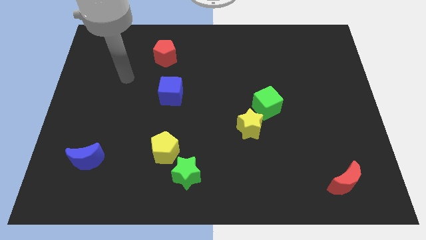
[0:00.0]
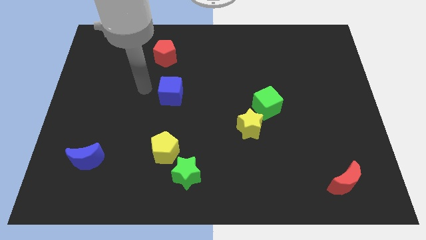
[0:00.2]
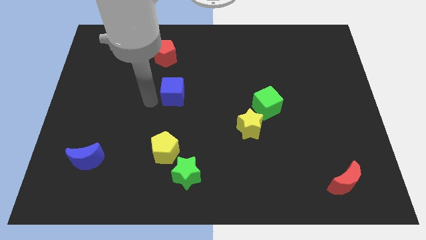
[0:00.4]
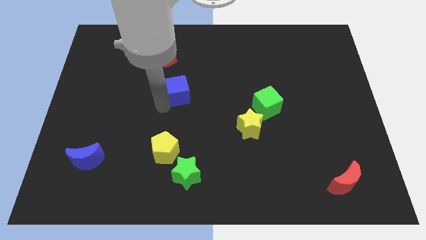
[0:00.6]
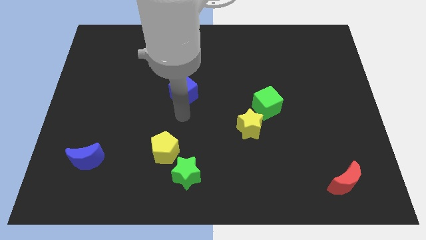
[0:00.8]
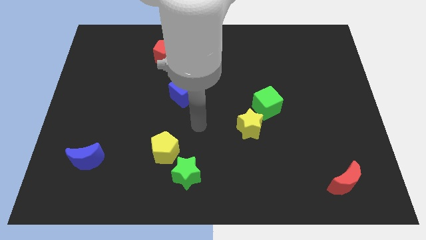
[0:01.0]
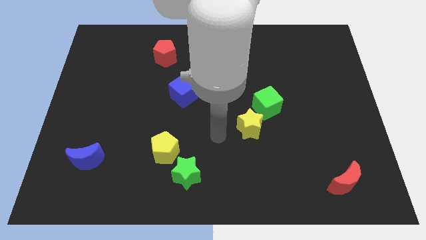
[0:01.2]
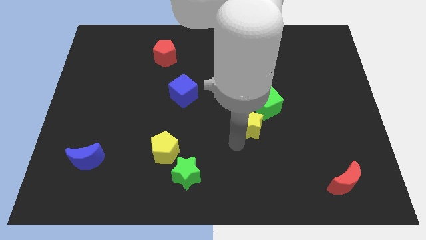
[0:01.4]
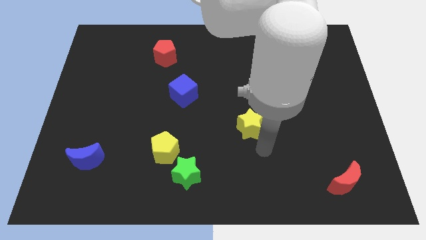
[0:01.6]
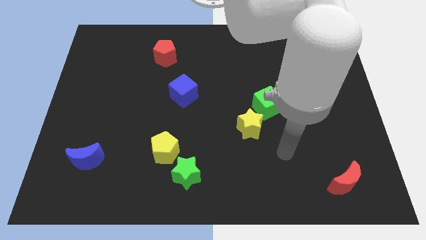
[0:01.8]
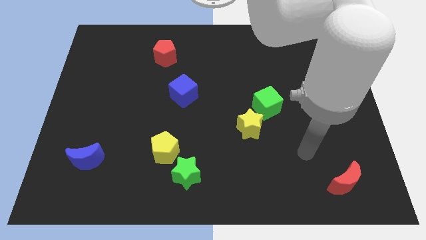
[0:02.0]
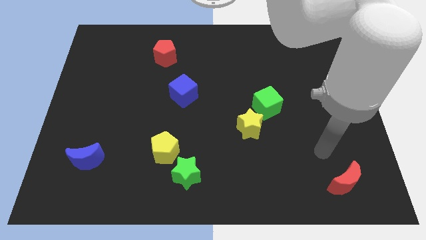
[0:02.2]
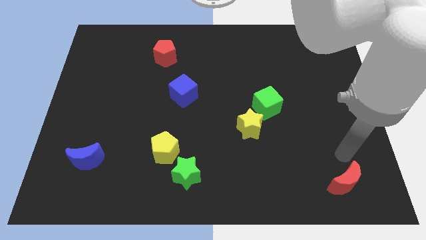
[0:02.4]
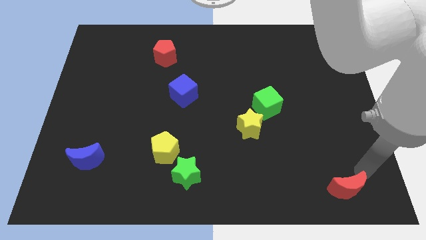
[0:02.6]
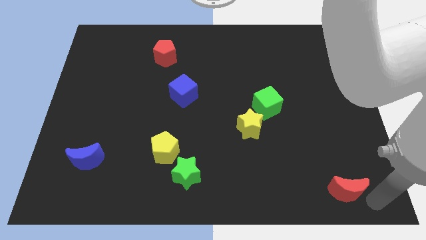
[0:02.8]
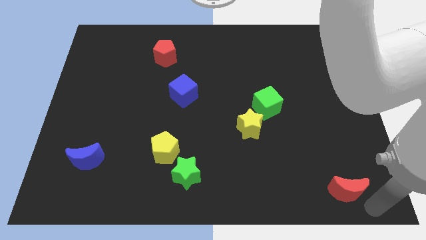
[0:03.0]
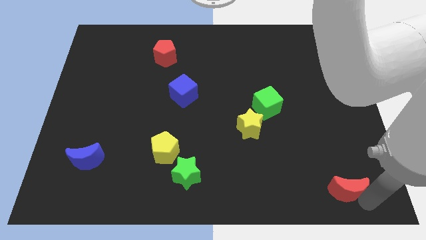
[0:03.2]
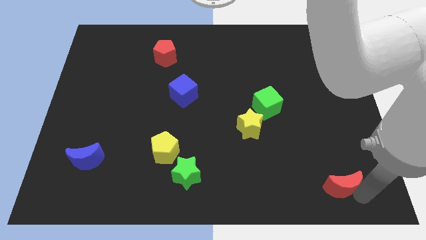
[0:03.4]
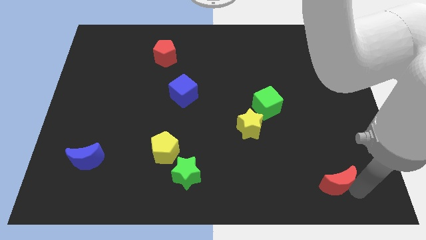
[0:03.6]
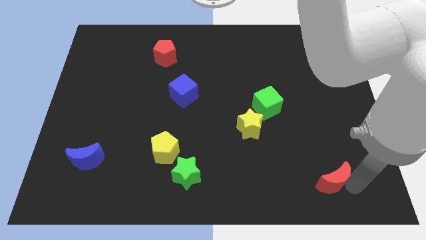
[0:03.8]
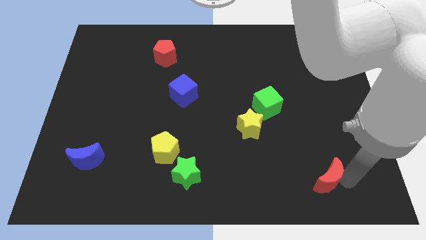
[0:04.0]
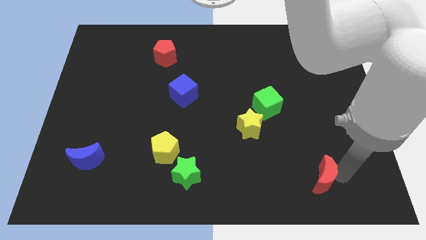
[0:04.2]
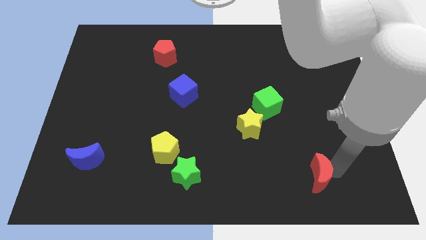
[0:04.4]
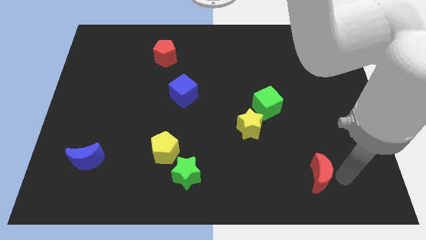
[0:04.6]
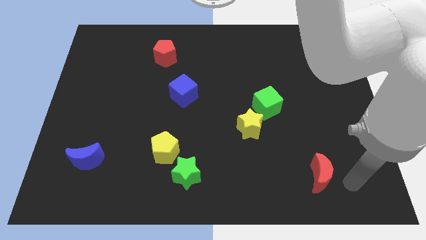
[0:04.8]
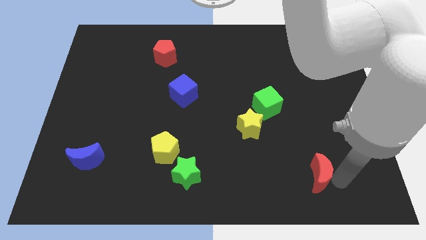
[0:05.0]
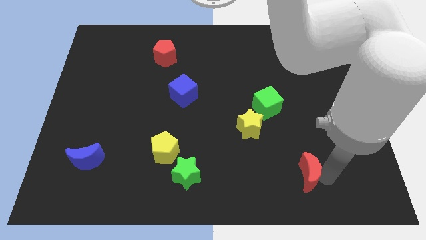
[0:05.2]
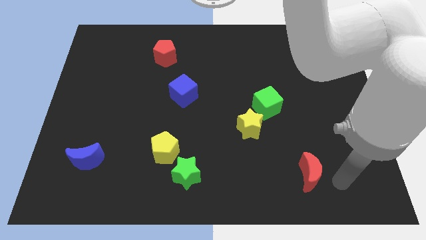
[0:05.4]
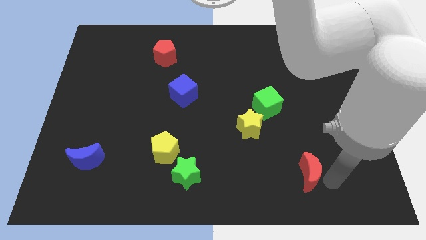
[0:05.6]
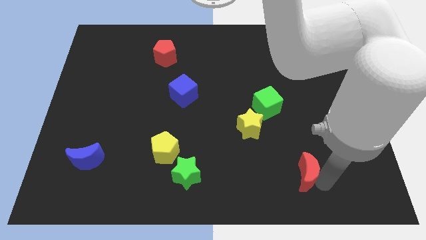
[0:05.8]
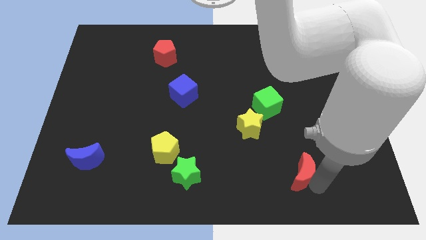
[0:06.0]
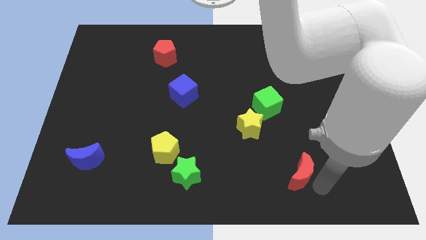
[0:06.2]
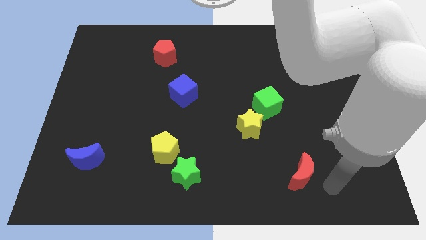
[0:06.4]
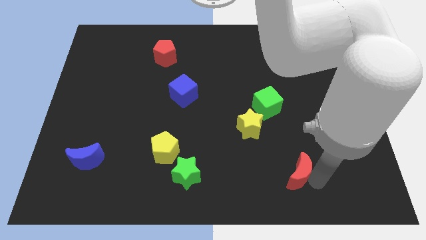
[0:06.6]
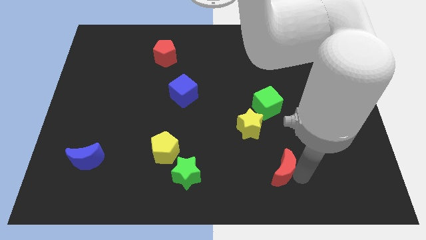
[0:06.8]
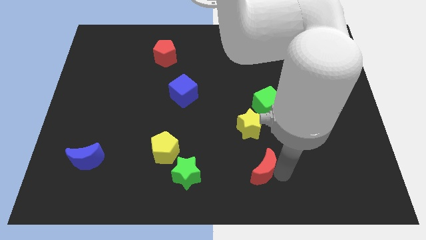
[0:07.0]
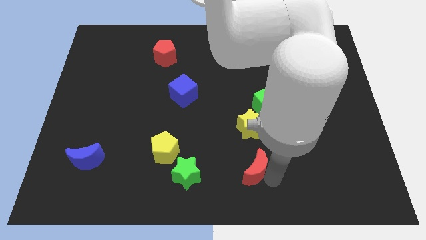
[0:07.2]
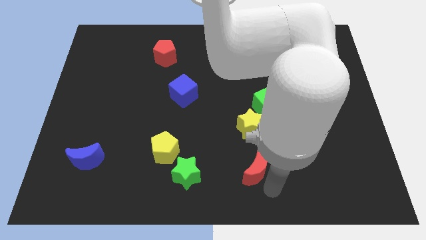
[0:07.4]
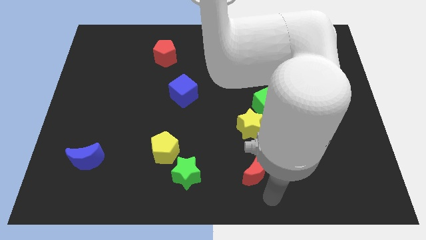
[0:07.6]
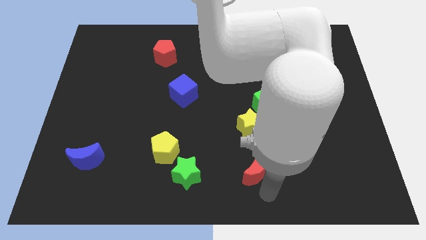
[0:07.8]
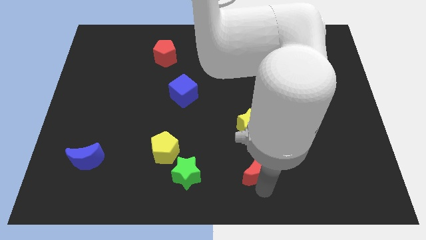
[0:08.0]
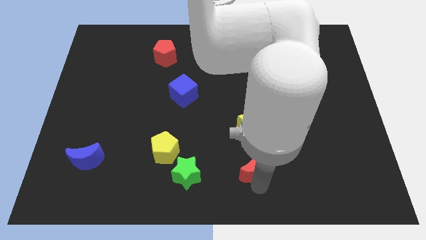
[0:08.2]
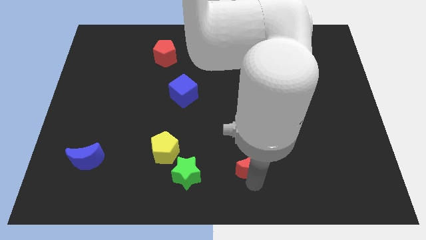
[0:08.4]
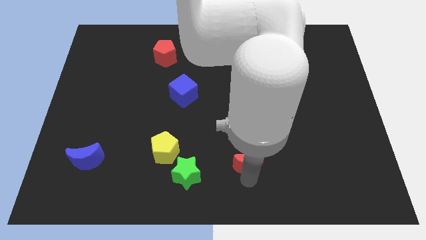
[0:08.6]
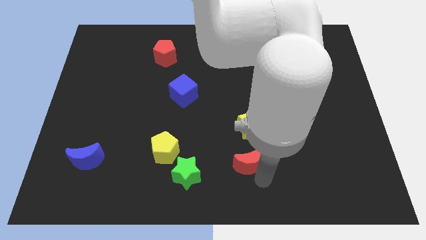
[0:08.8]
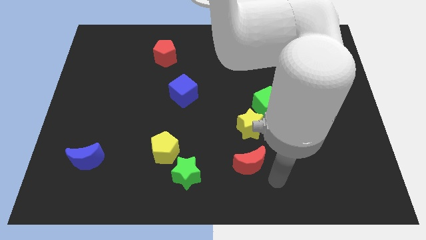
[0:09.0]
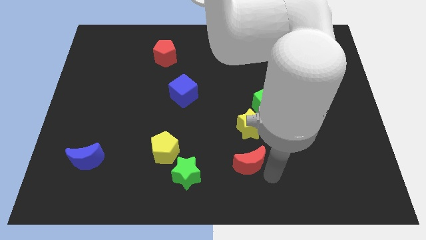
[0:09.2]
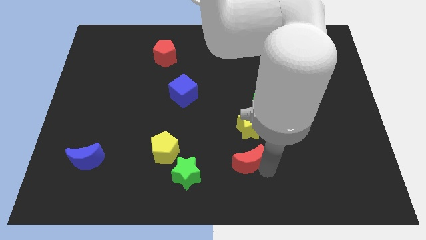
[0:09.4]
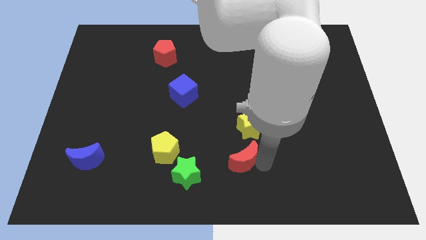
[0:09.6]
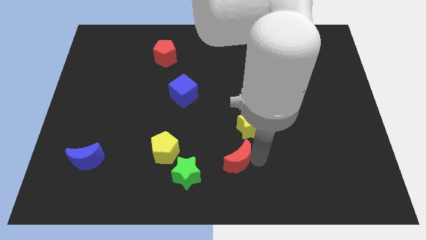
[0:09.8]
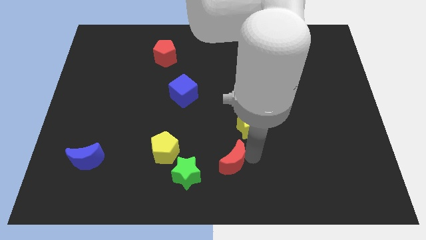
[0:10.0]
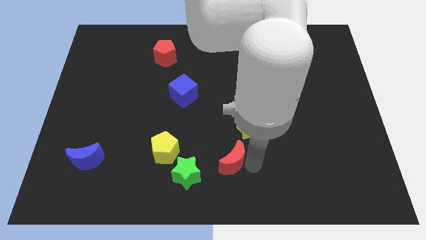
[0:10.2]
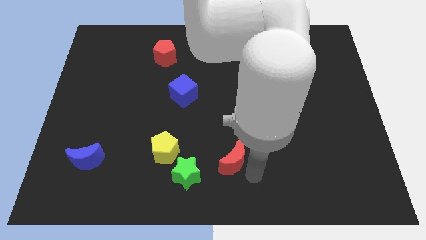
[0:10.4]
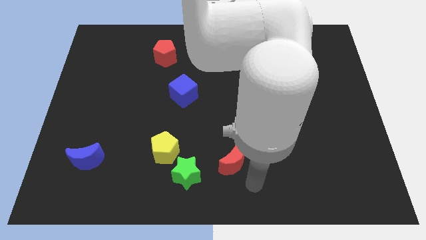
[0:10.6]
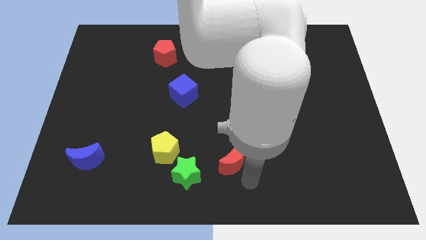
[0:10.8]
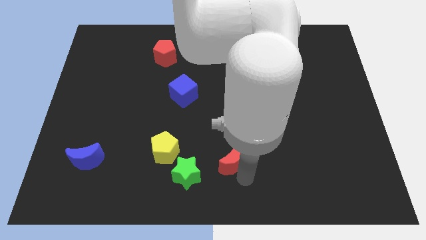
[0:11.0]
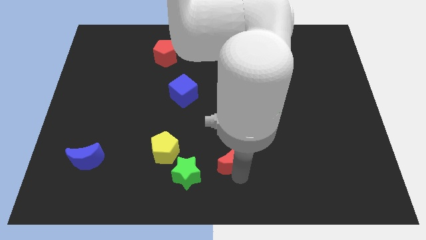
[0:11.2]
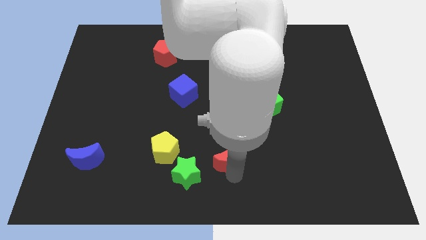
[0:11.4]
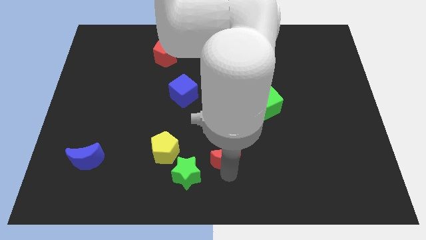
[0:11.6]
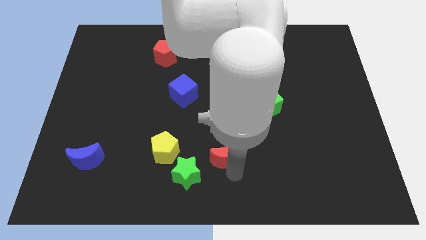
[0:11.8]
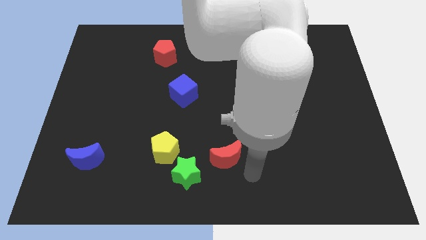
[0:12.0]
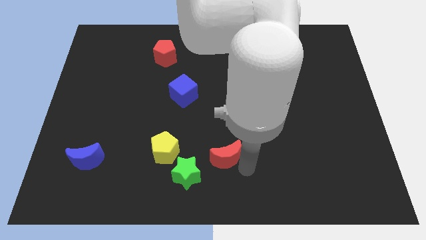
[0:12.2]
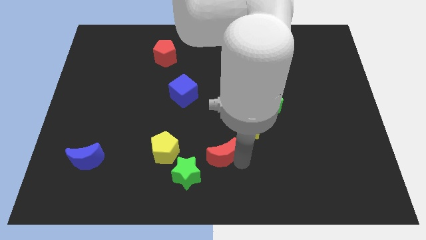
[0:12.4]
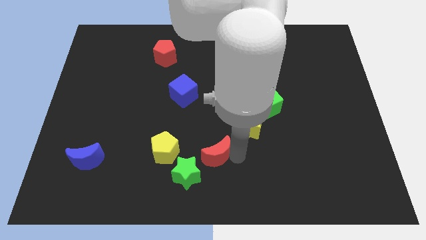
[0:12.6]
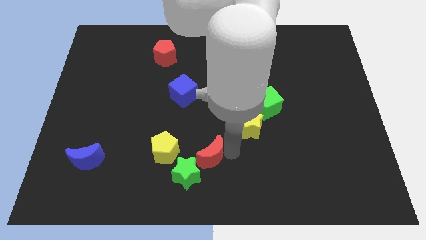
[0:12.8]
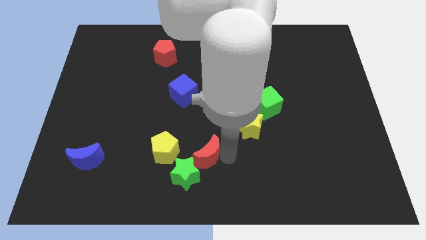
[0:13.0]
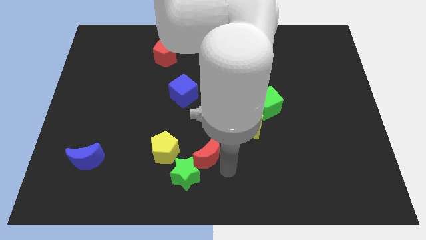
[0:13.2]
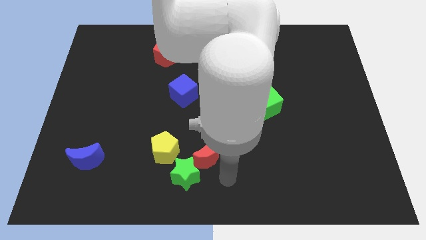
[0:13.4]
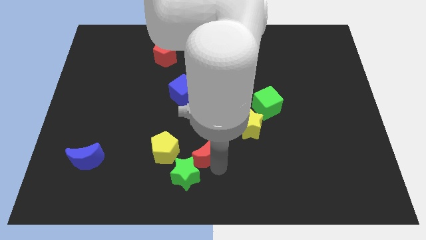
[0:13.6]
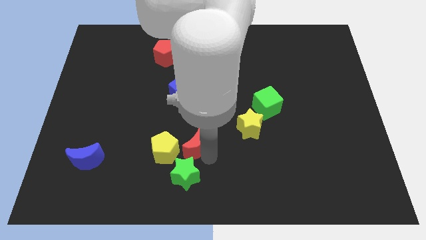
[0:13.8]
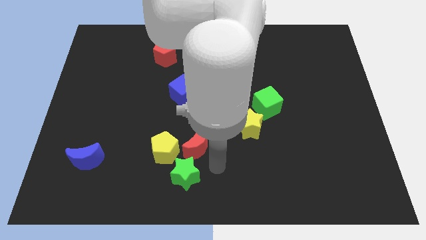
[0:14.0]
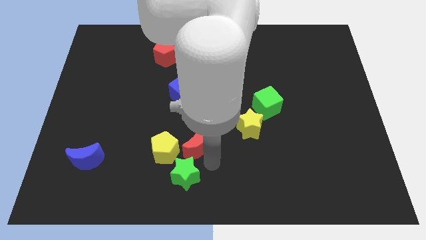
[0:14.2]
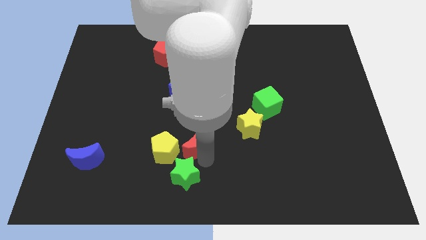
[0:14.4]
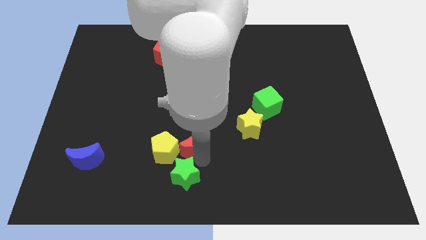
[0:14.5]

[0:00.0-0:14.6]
slide the red moon below the blue cube
